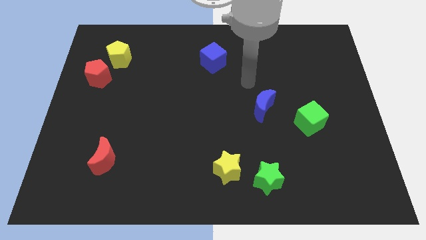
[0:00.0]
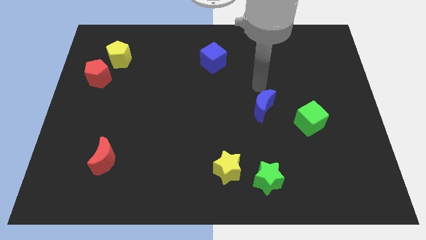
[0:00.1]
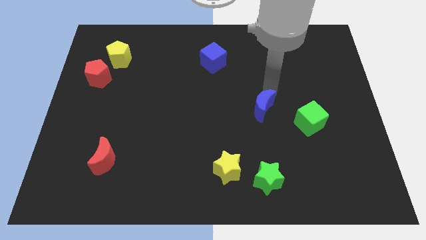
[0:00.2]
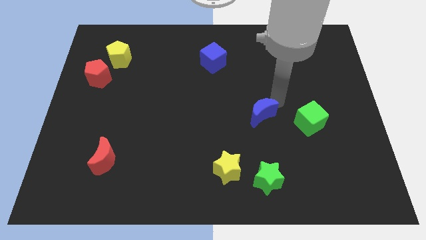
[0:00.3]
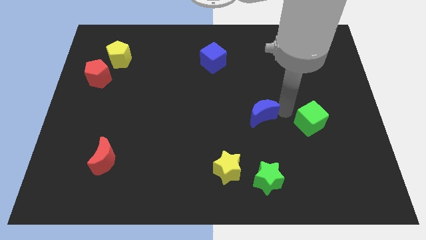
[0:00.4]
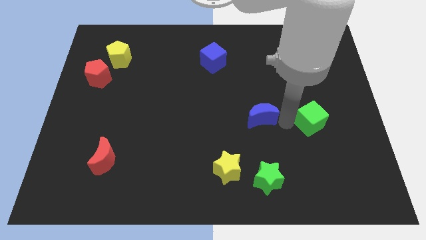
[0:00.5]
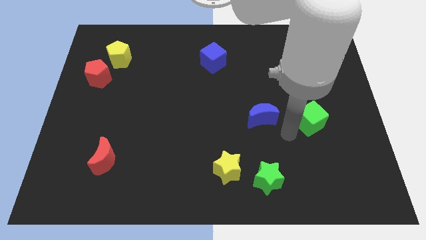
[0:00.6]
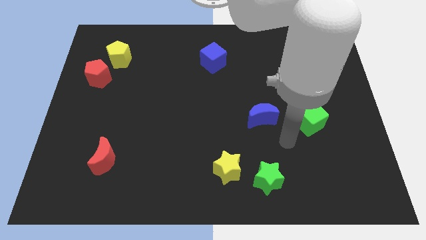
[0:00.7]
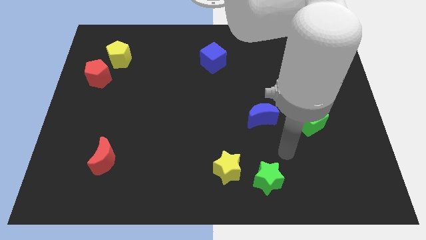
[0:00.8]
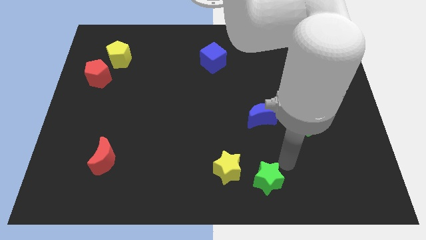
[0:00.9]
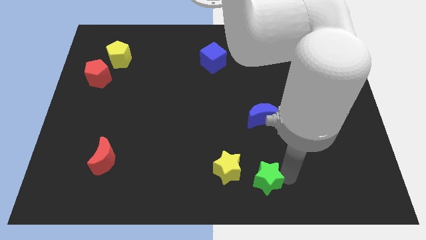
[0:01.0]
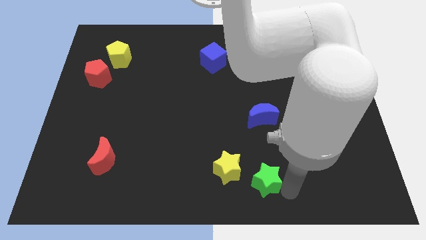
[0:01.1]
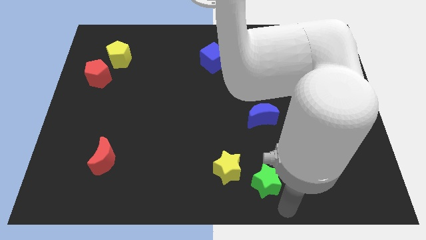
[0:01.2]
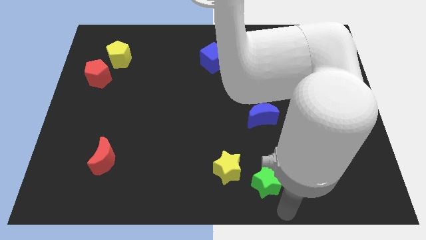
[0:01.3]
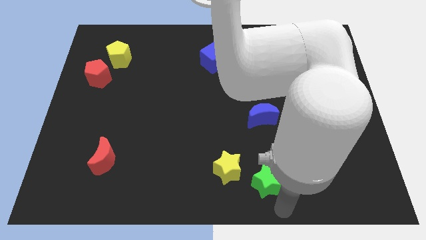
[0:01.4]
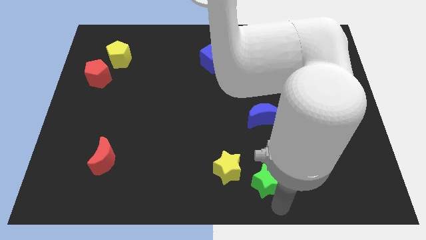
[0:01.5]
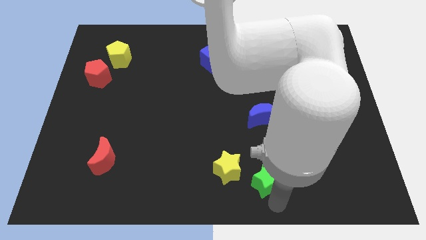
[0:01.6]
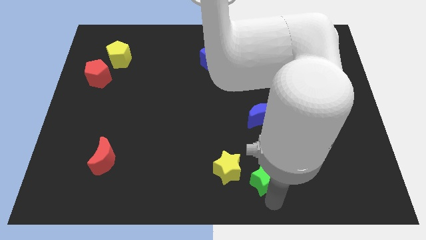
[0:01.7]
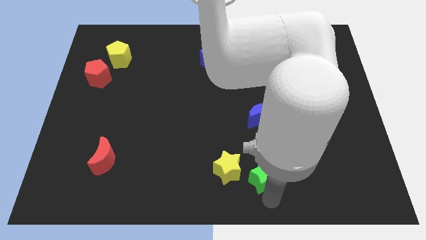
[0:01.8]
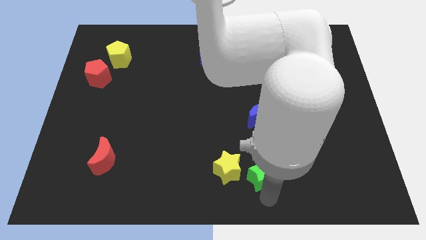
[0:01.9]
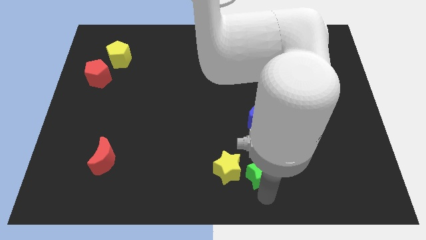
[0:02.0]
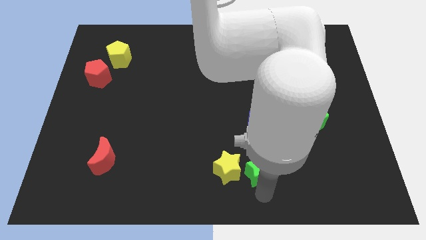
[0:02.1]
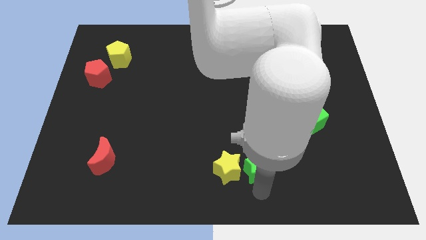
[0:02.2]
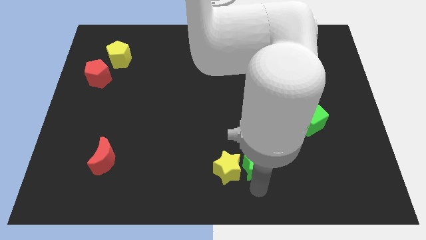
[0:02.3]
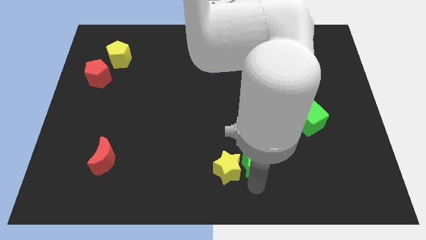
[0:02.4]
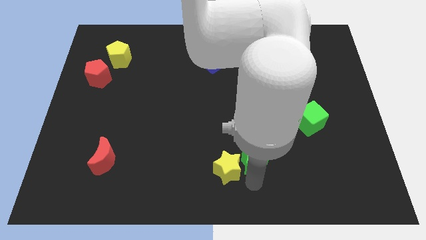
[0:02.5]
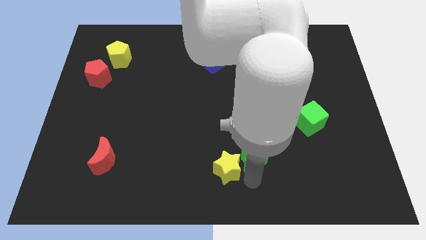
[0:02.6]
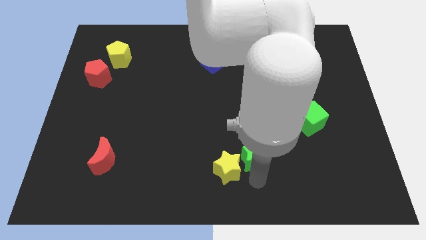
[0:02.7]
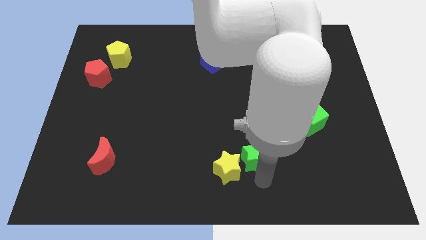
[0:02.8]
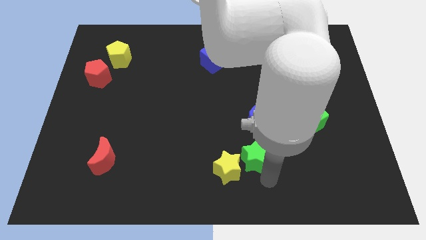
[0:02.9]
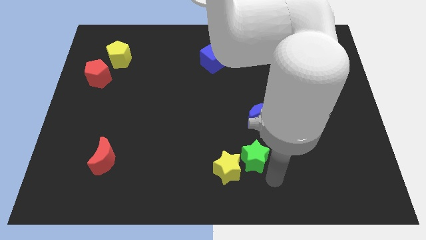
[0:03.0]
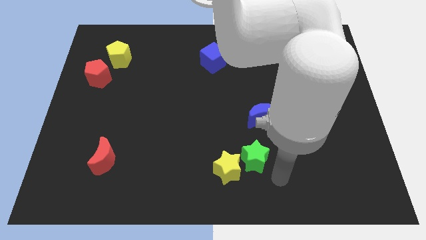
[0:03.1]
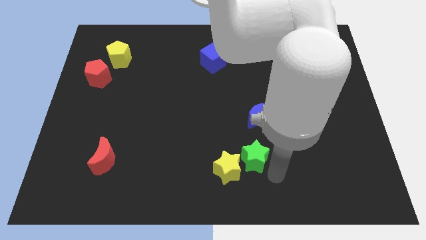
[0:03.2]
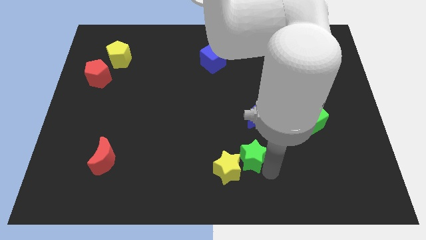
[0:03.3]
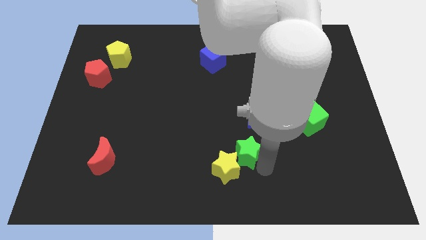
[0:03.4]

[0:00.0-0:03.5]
move the green star a bit up and to the left diagonally

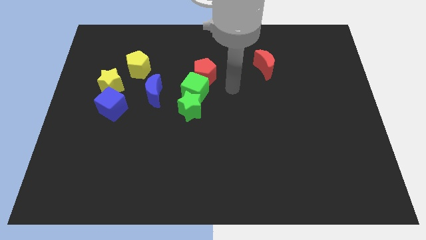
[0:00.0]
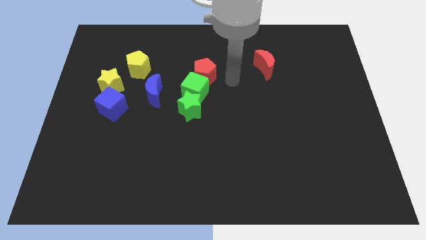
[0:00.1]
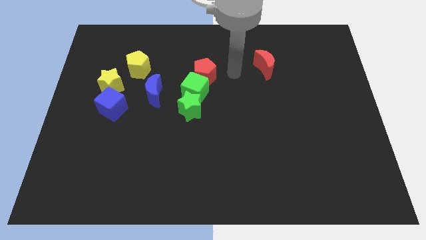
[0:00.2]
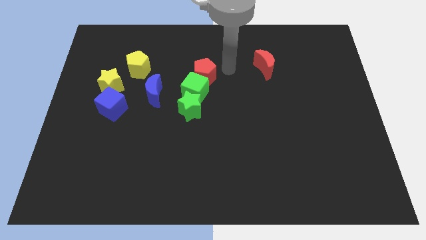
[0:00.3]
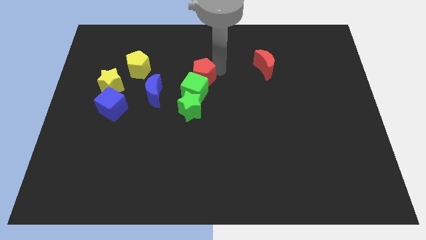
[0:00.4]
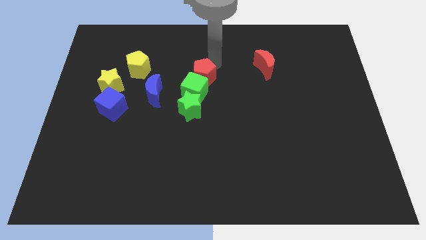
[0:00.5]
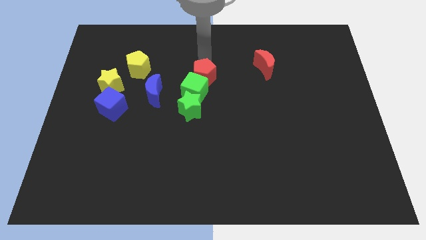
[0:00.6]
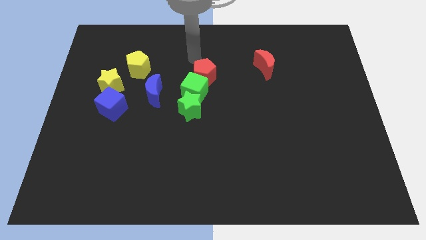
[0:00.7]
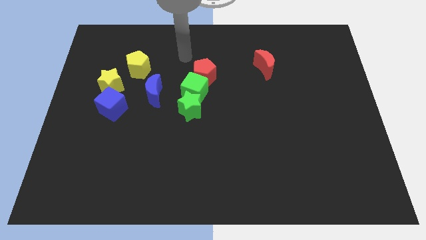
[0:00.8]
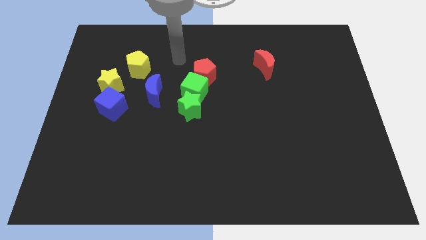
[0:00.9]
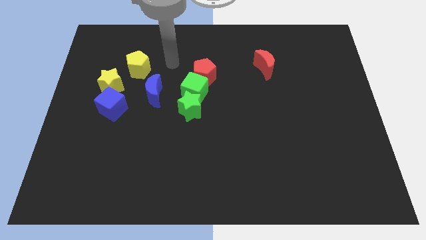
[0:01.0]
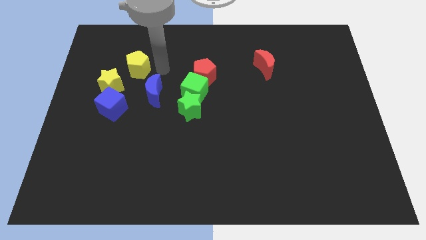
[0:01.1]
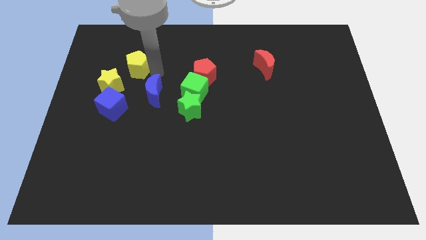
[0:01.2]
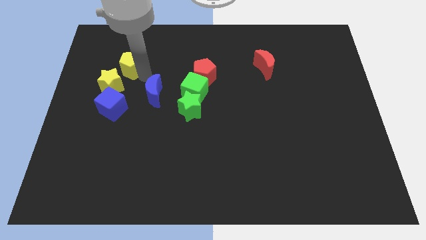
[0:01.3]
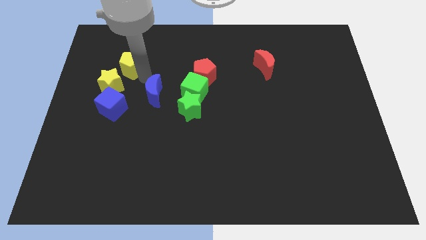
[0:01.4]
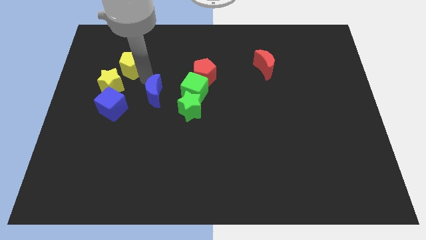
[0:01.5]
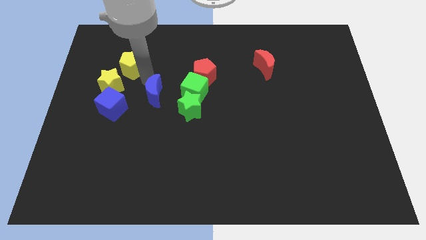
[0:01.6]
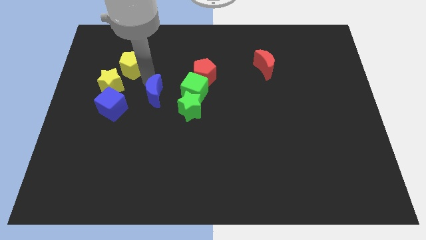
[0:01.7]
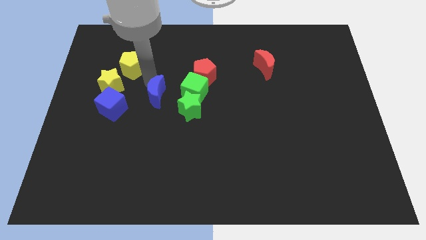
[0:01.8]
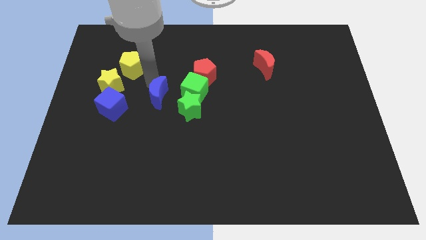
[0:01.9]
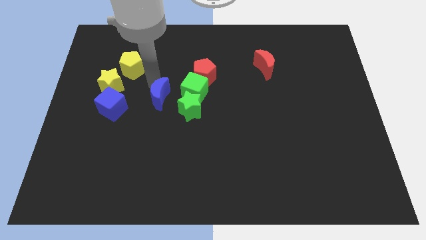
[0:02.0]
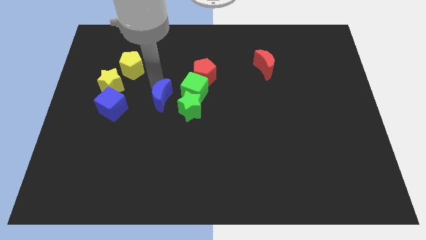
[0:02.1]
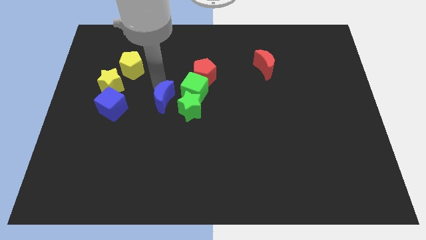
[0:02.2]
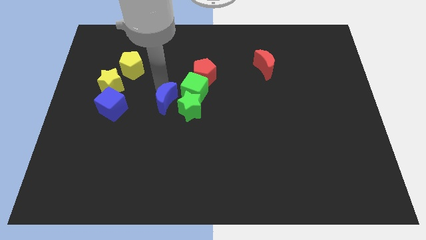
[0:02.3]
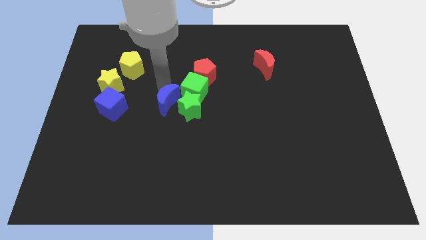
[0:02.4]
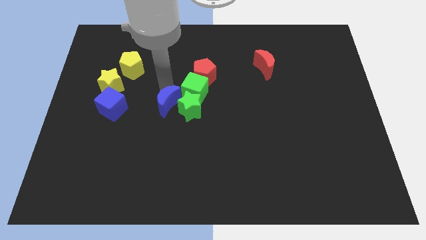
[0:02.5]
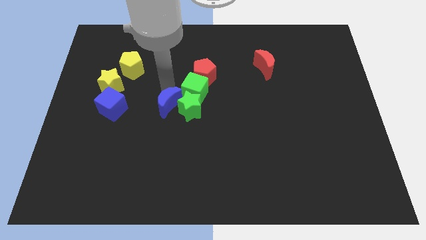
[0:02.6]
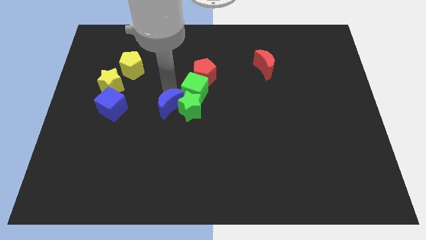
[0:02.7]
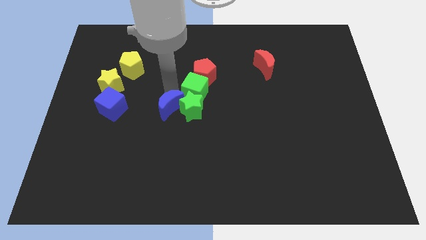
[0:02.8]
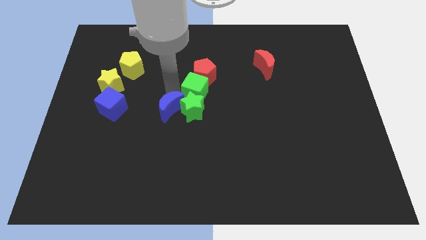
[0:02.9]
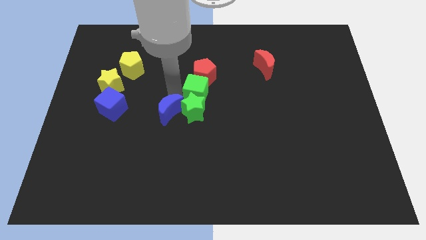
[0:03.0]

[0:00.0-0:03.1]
push the blue moon diagonally down and to the right a little

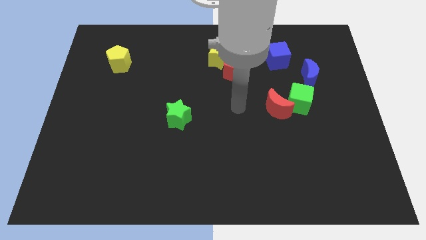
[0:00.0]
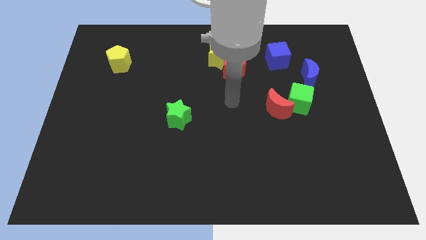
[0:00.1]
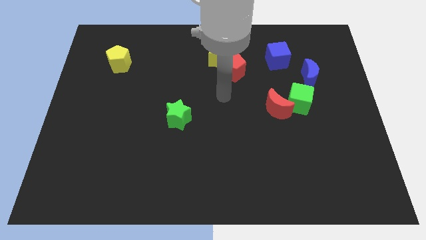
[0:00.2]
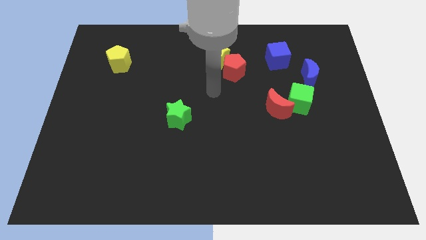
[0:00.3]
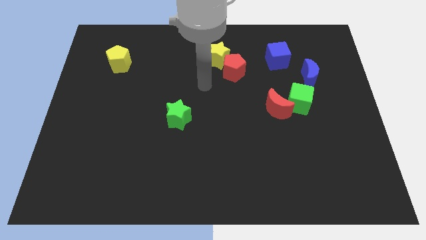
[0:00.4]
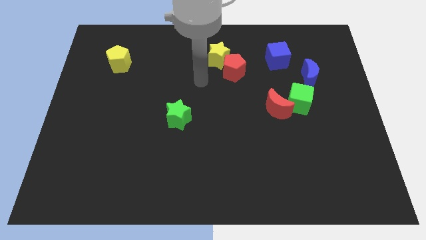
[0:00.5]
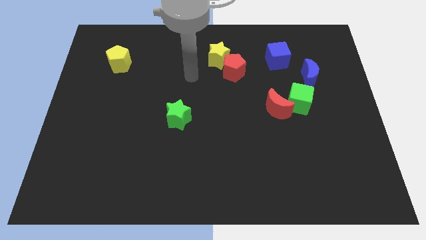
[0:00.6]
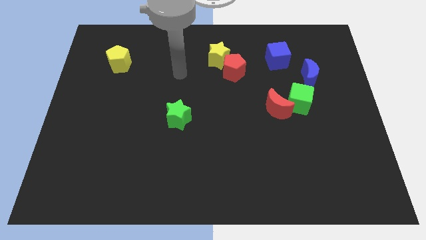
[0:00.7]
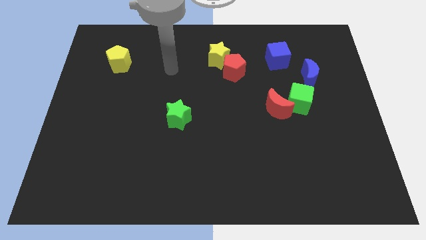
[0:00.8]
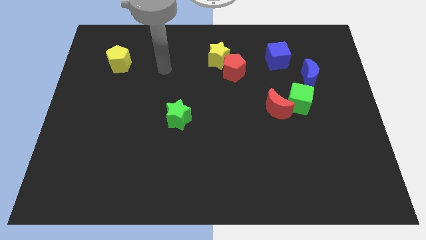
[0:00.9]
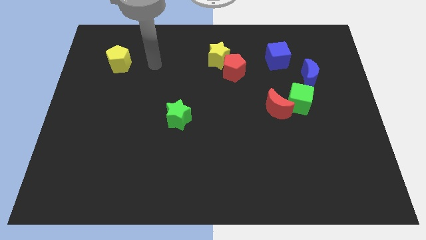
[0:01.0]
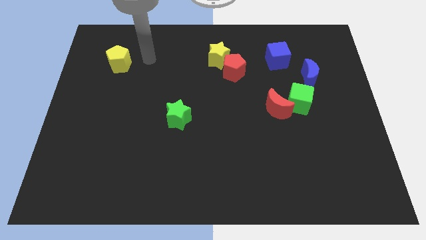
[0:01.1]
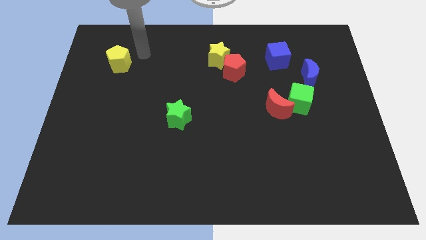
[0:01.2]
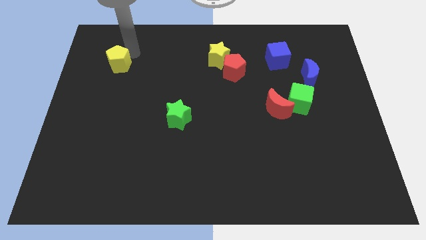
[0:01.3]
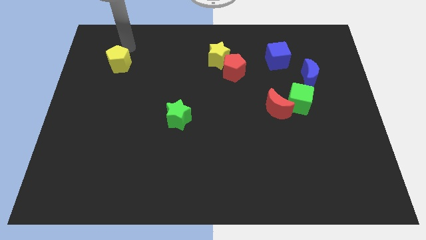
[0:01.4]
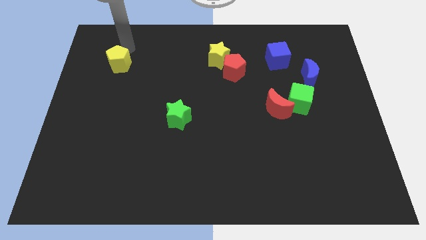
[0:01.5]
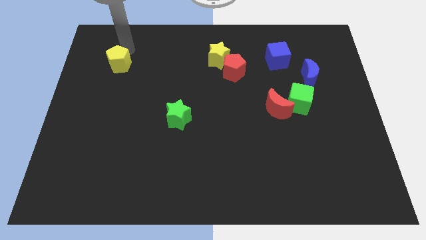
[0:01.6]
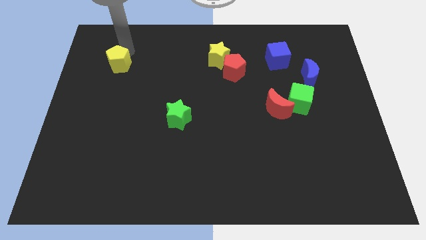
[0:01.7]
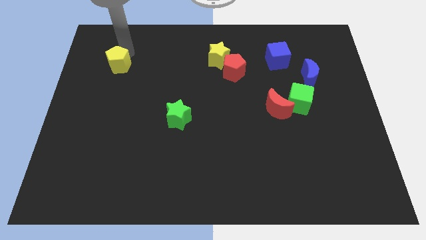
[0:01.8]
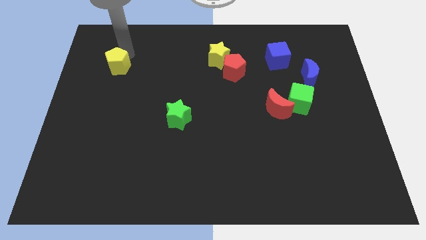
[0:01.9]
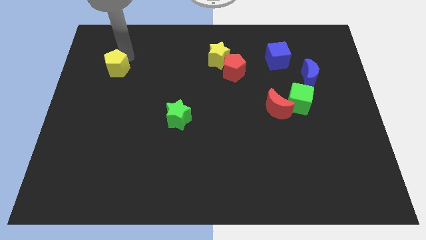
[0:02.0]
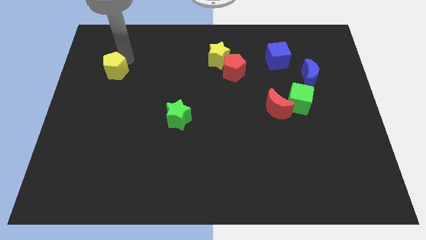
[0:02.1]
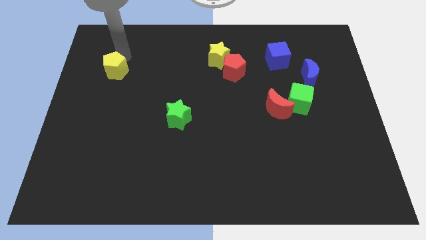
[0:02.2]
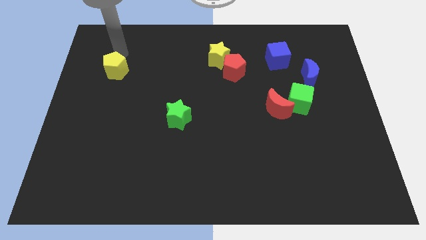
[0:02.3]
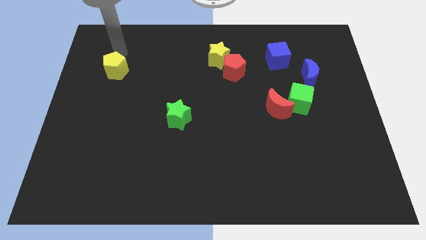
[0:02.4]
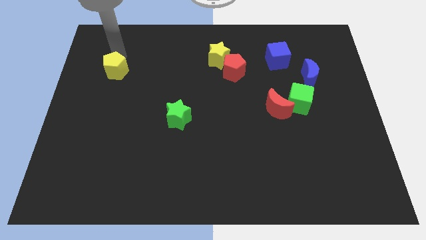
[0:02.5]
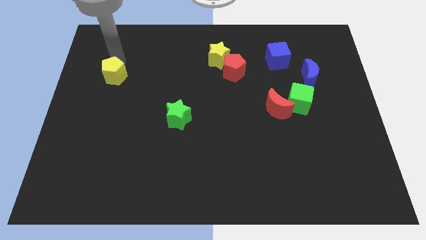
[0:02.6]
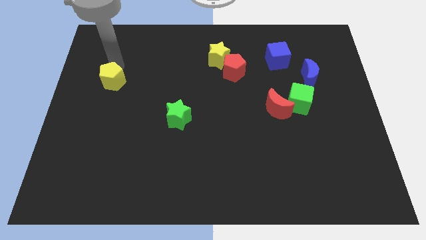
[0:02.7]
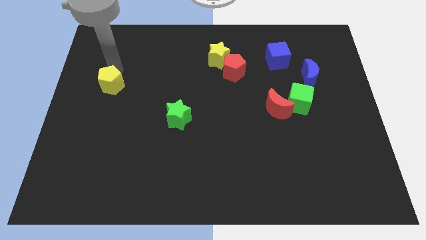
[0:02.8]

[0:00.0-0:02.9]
slightly slide the yellow pentagon downwards
